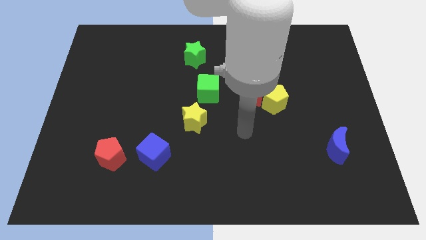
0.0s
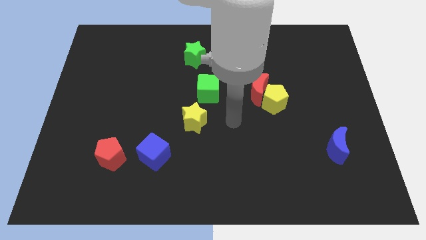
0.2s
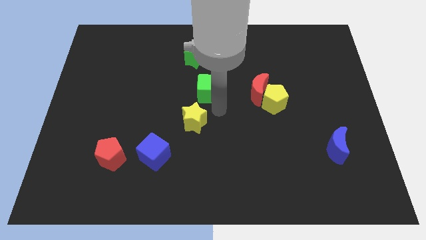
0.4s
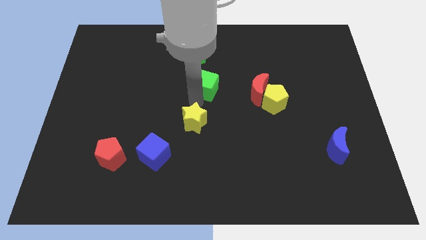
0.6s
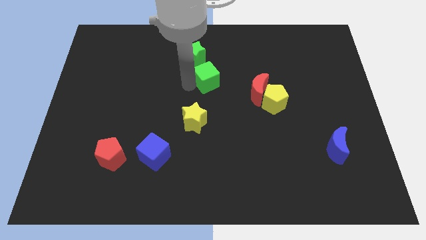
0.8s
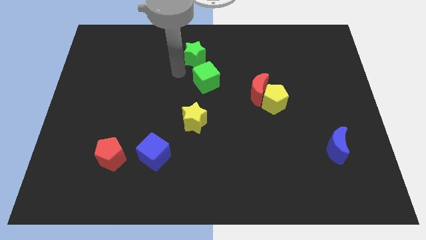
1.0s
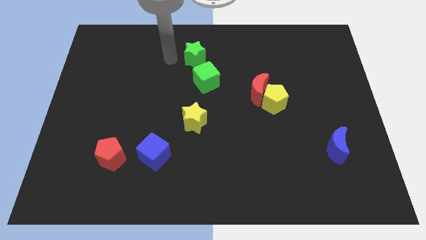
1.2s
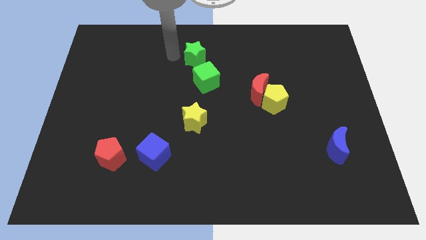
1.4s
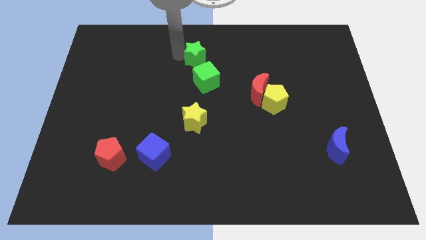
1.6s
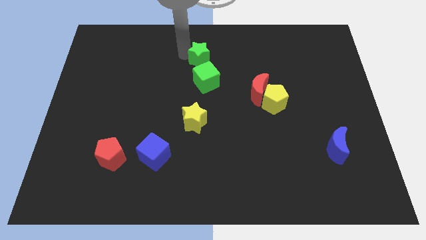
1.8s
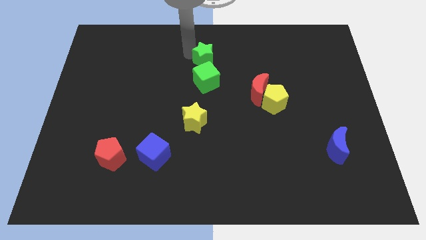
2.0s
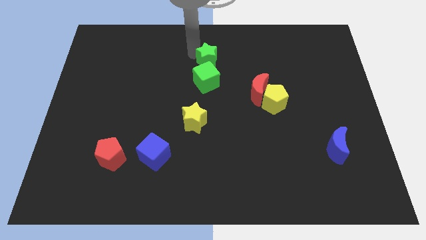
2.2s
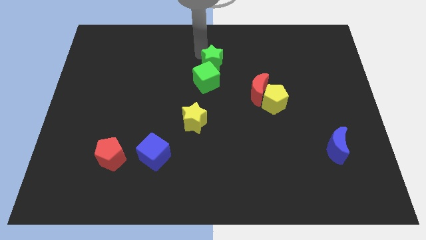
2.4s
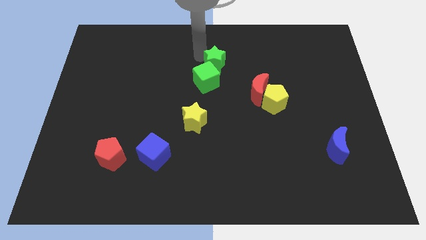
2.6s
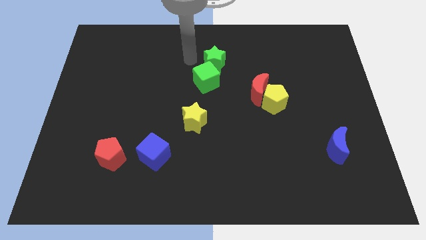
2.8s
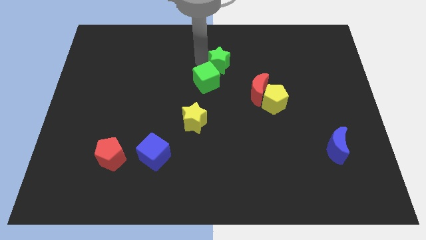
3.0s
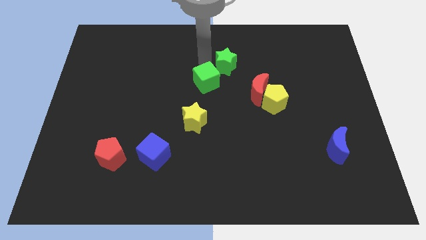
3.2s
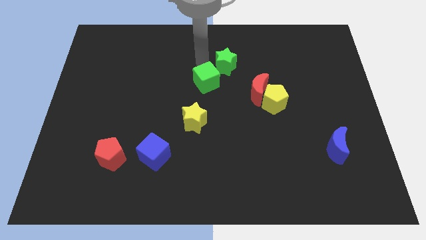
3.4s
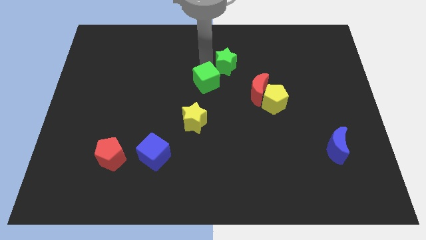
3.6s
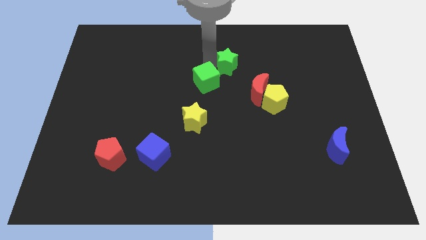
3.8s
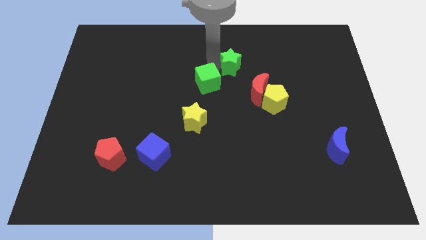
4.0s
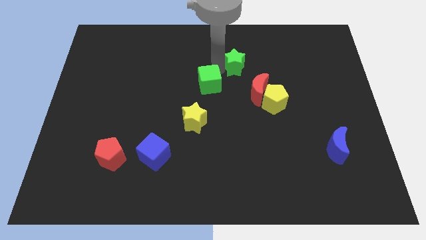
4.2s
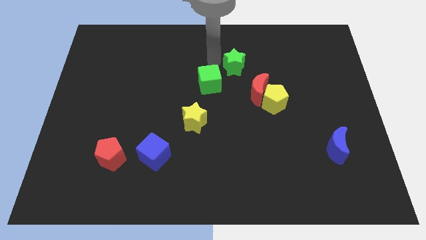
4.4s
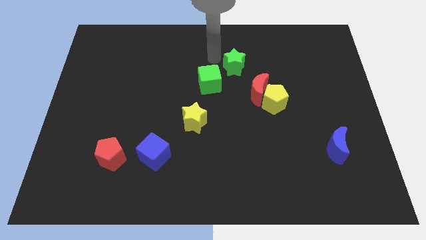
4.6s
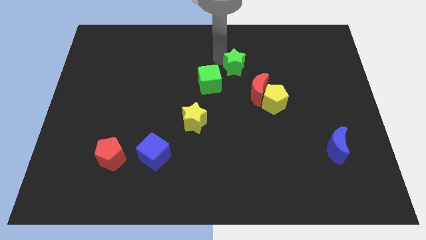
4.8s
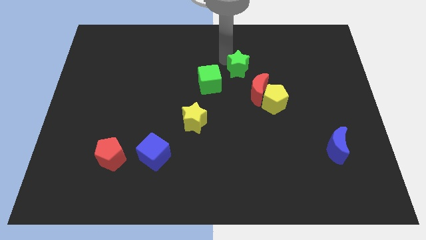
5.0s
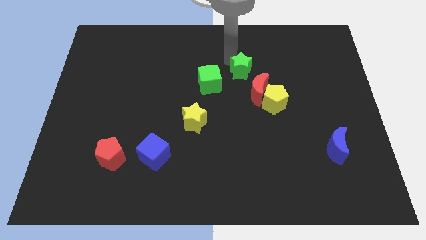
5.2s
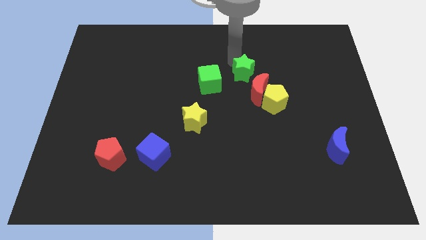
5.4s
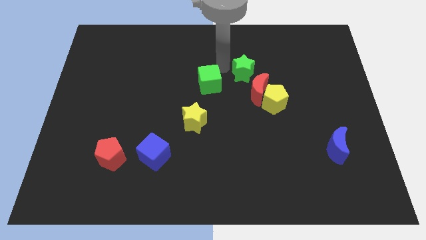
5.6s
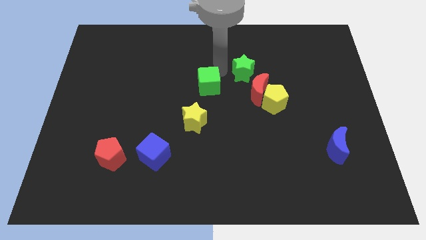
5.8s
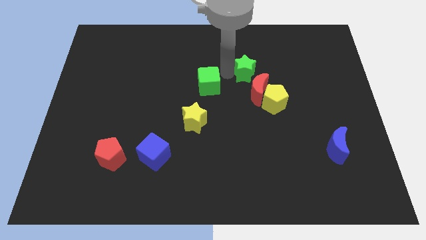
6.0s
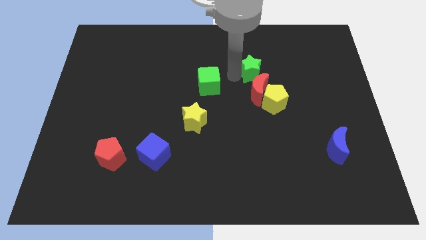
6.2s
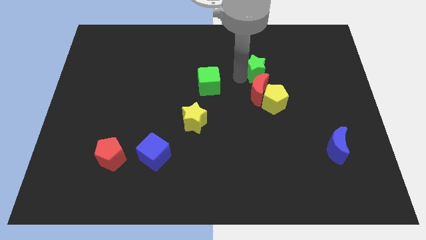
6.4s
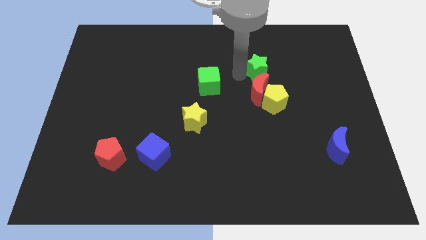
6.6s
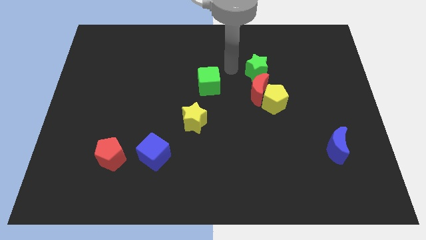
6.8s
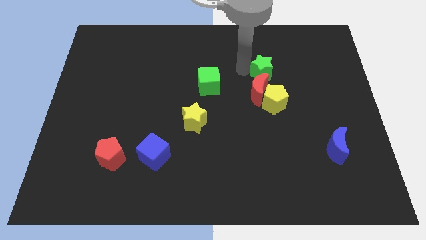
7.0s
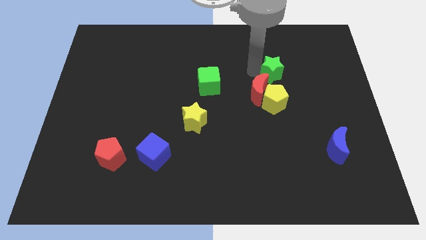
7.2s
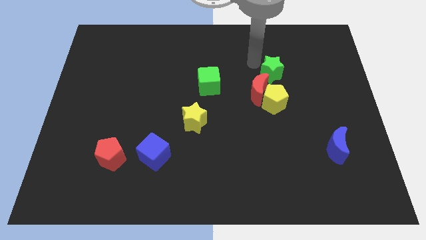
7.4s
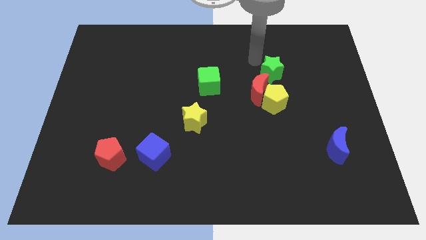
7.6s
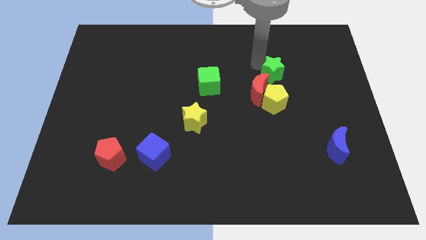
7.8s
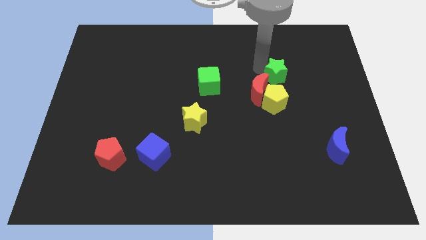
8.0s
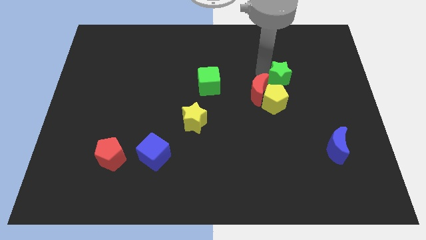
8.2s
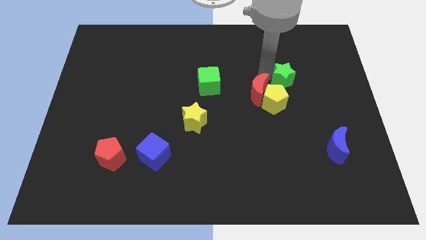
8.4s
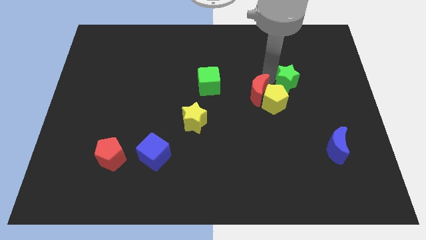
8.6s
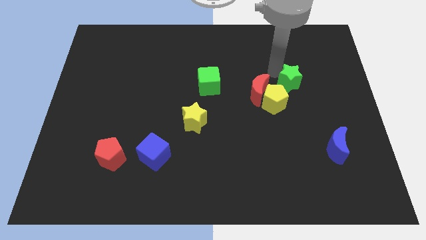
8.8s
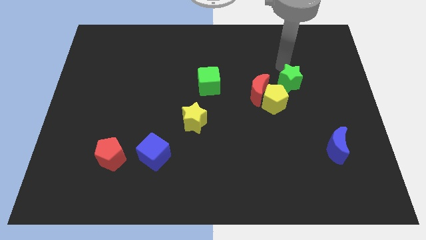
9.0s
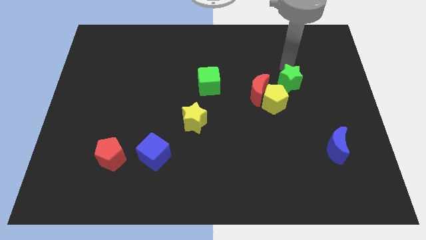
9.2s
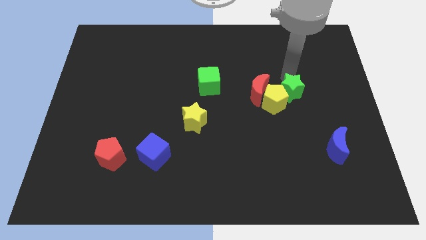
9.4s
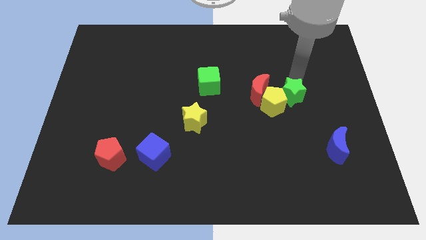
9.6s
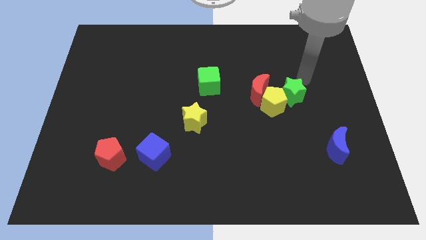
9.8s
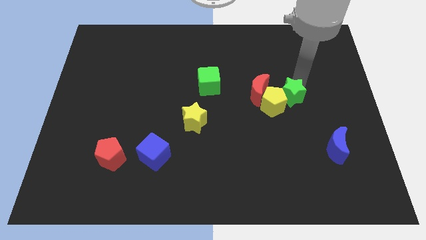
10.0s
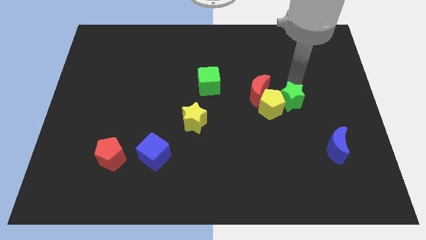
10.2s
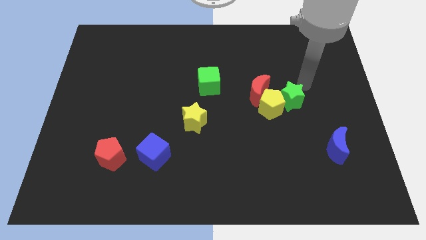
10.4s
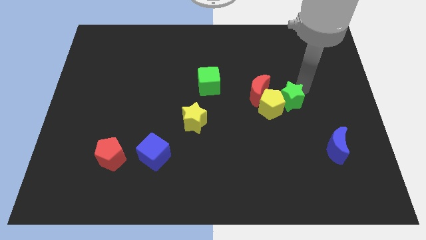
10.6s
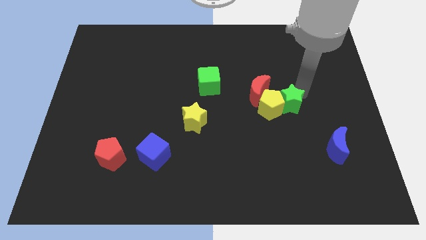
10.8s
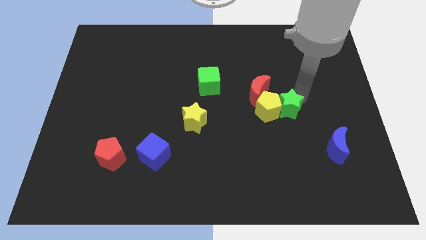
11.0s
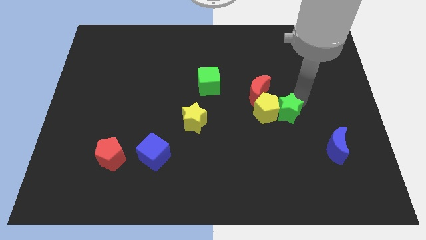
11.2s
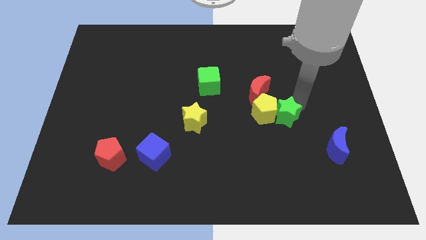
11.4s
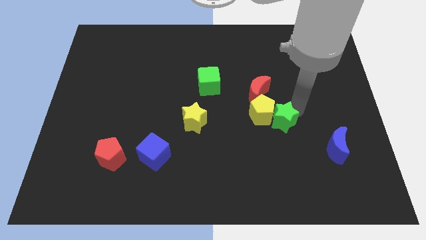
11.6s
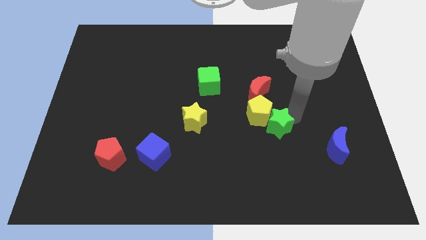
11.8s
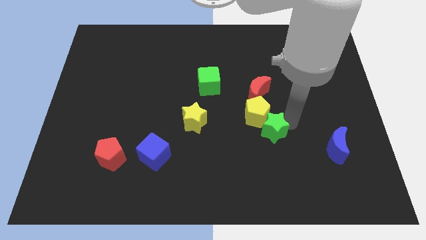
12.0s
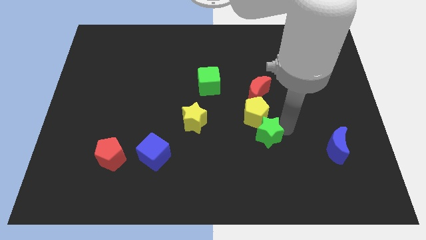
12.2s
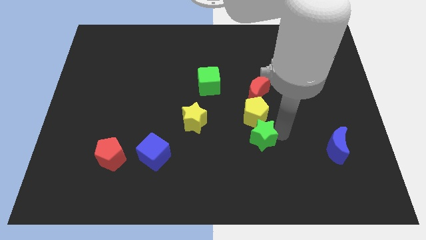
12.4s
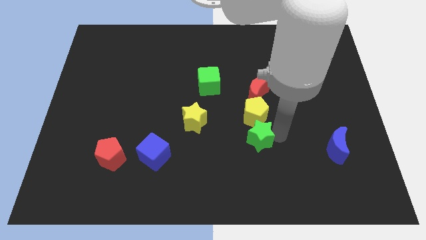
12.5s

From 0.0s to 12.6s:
put the green star to the bottom left of the yellow pentagon

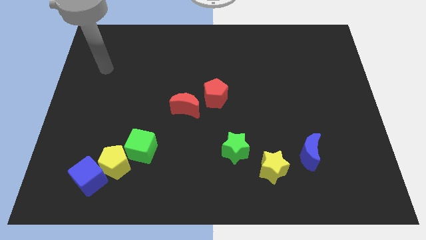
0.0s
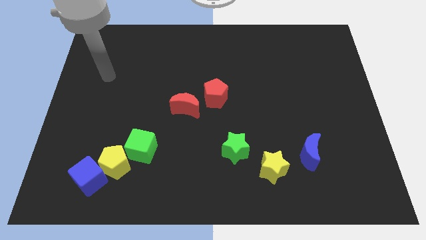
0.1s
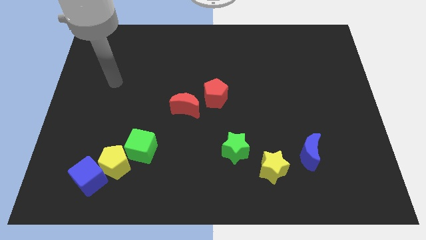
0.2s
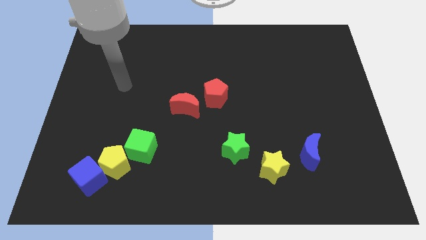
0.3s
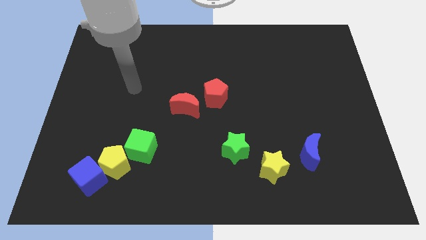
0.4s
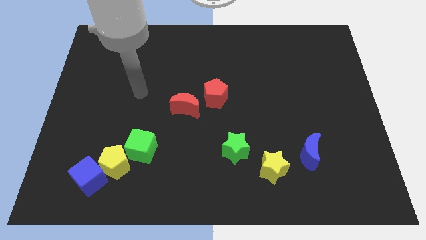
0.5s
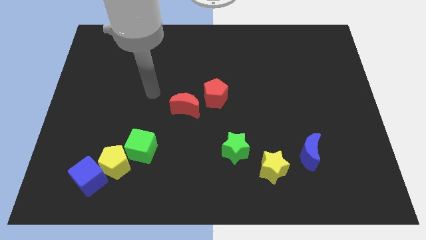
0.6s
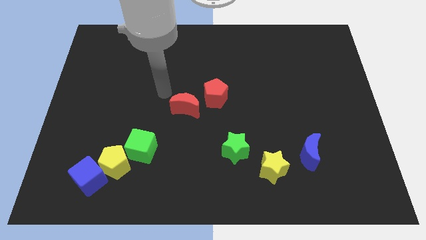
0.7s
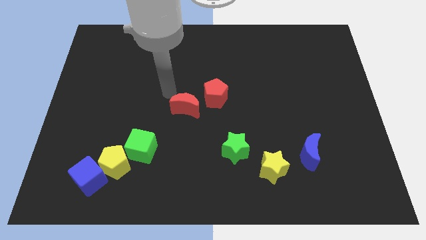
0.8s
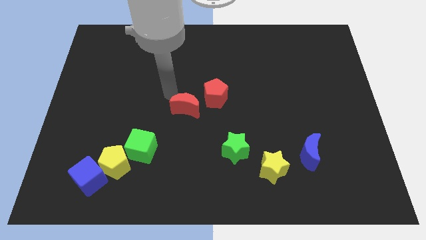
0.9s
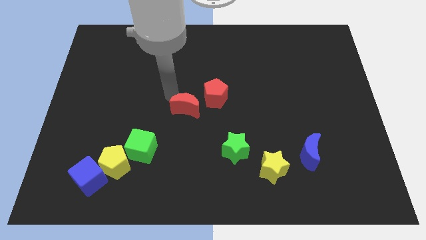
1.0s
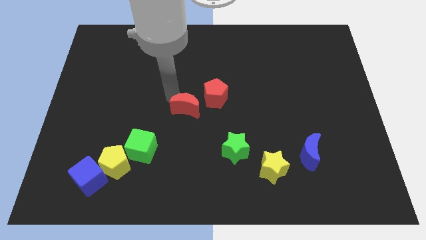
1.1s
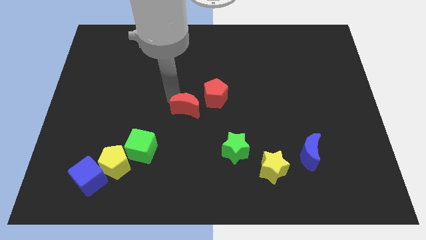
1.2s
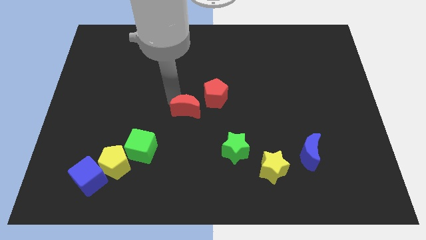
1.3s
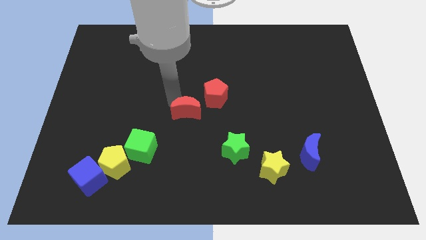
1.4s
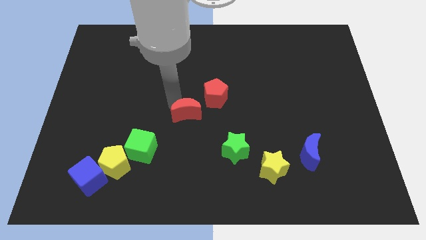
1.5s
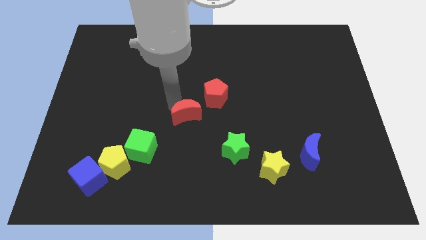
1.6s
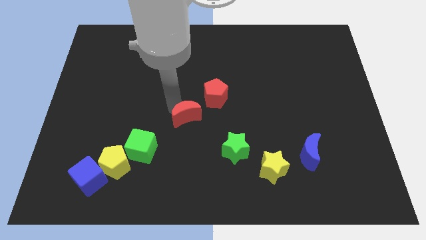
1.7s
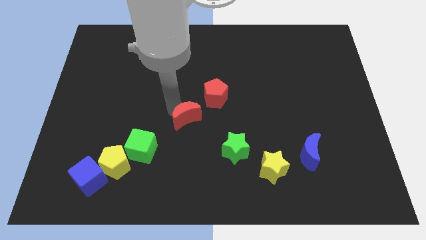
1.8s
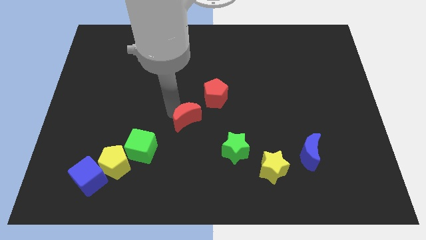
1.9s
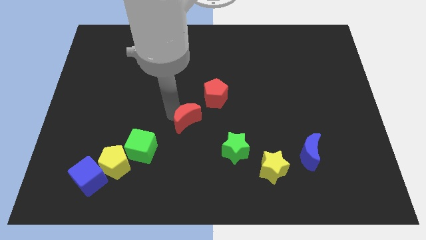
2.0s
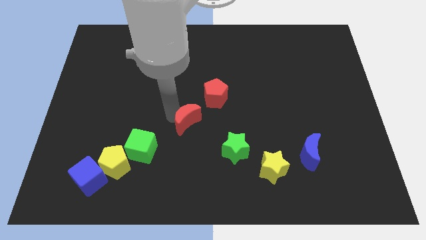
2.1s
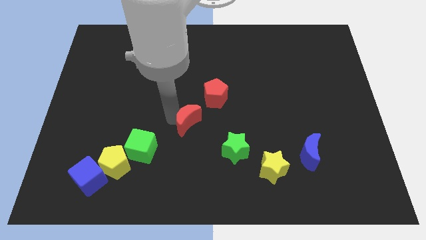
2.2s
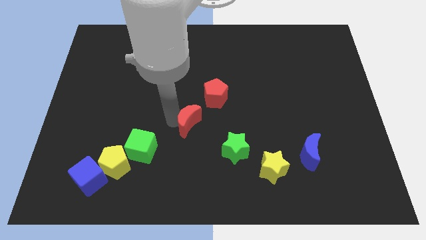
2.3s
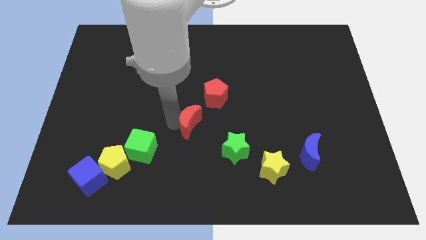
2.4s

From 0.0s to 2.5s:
put the red moon to the top left side of the green star
